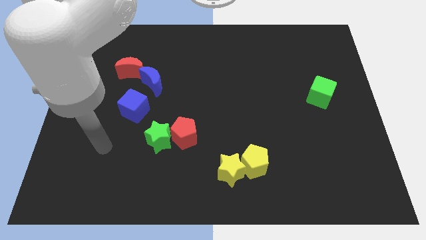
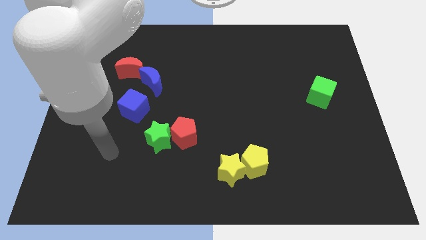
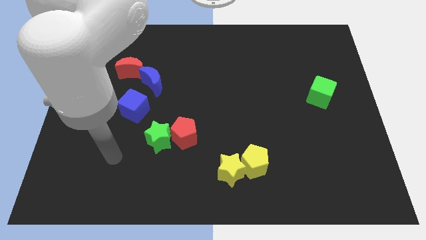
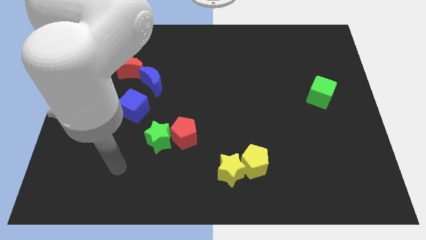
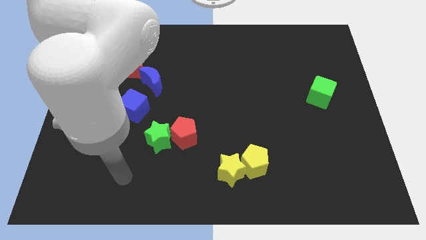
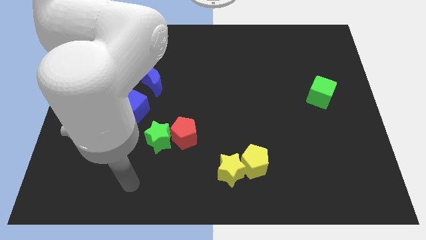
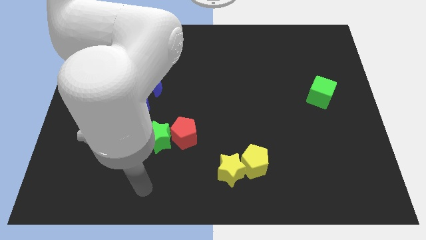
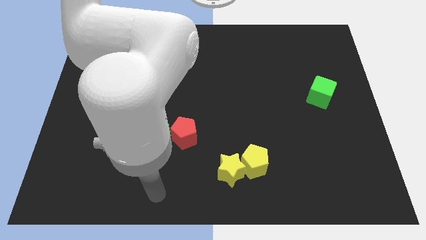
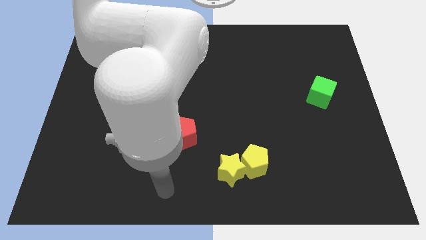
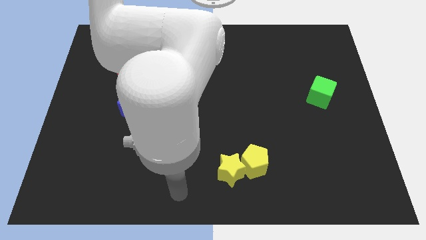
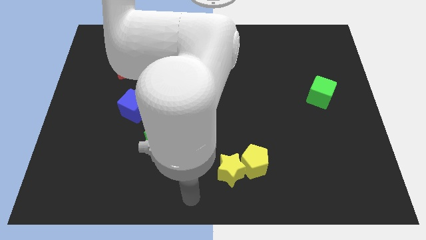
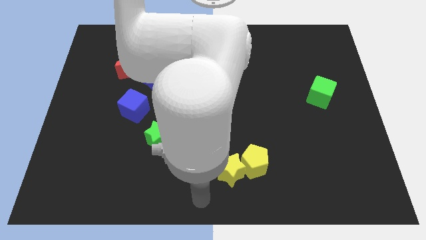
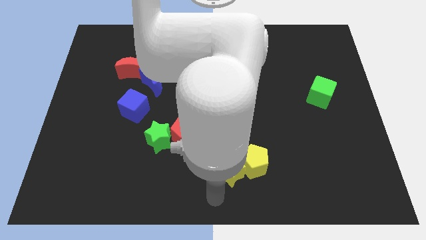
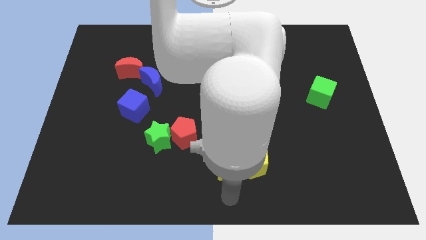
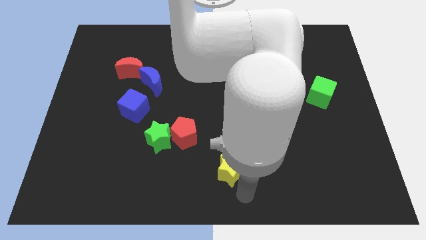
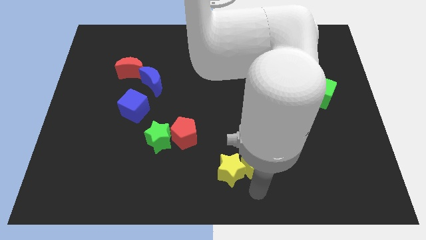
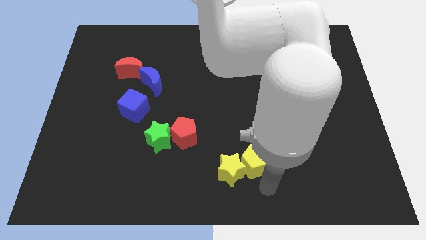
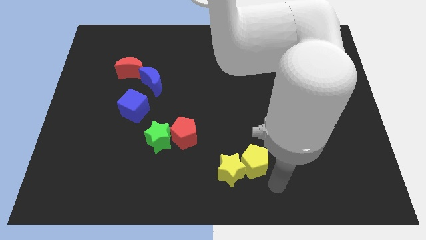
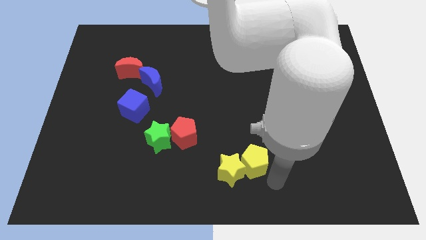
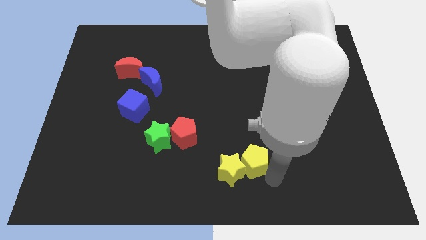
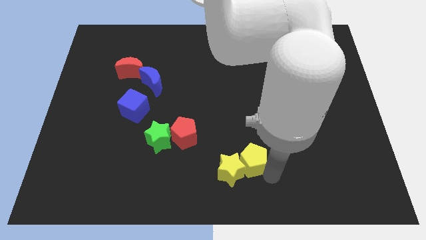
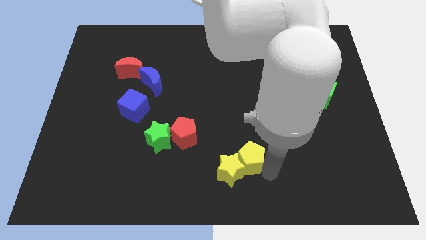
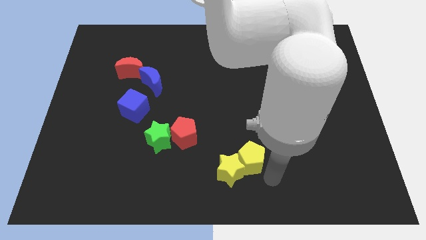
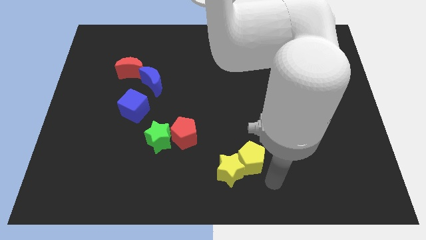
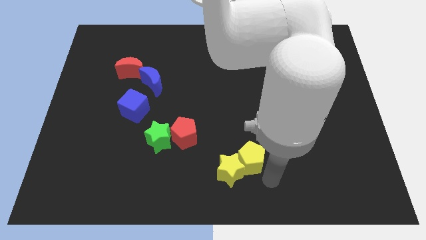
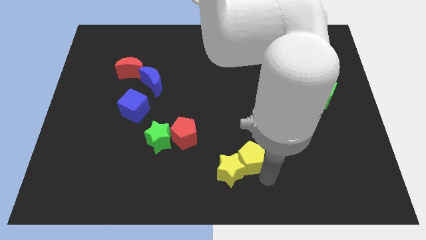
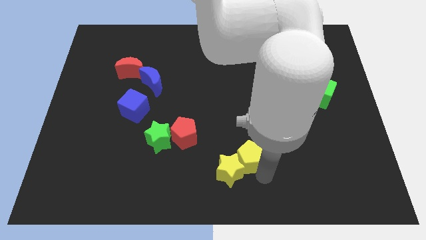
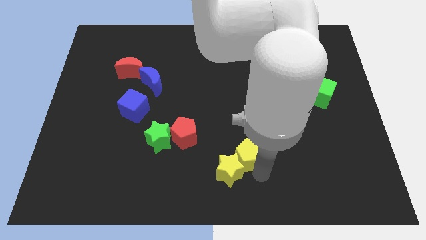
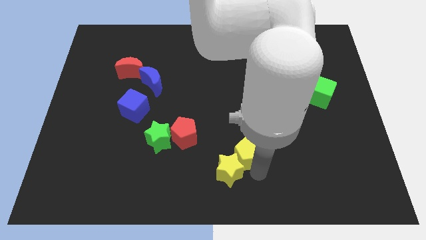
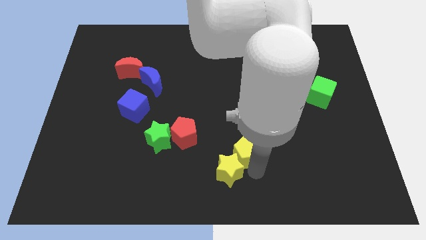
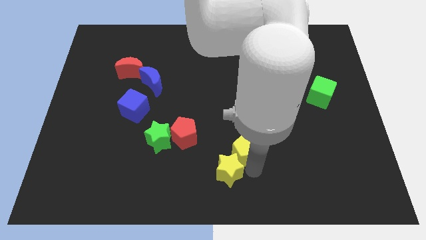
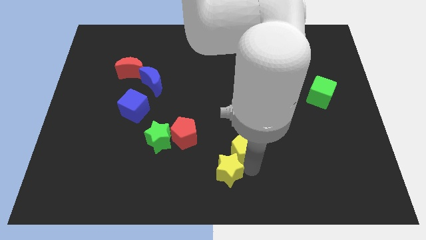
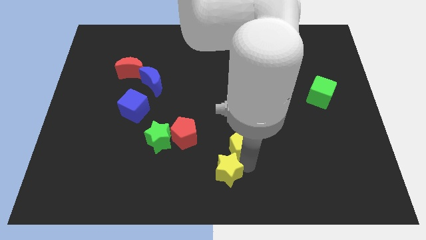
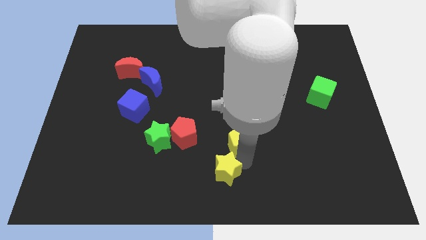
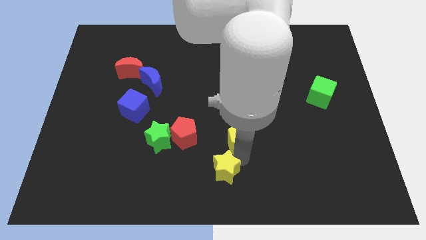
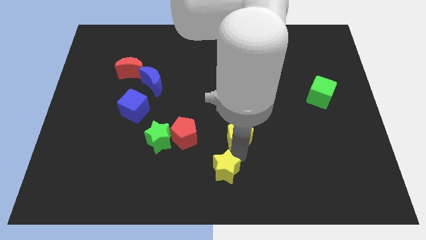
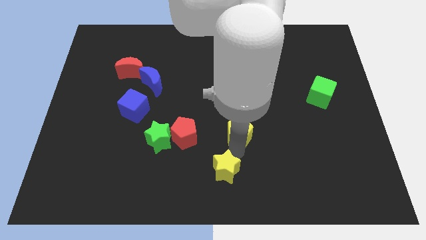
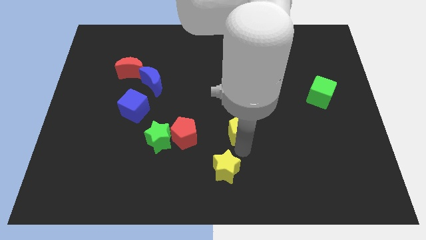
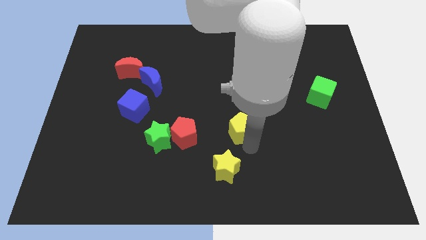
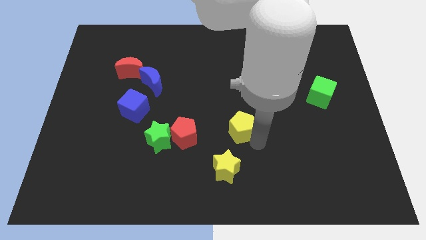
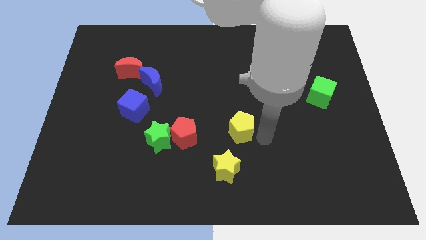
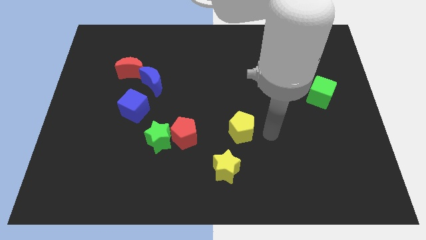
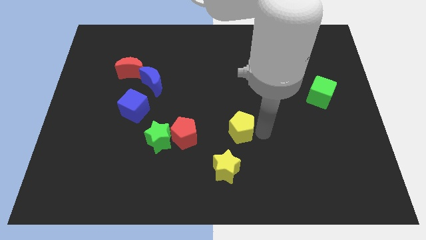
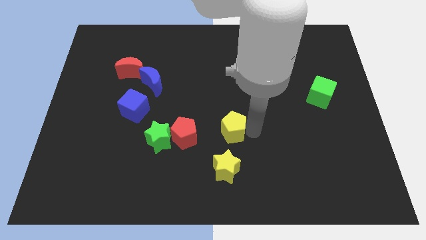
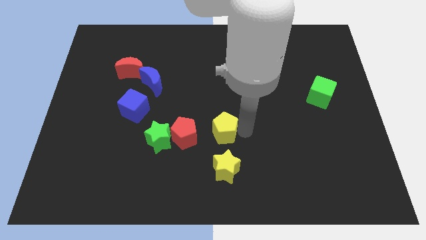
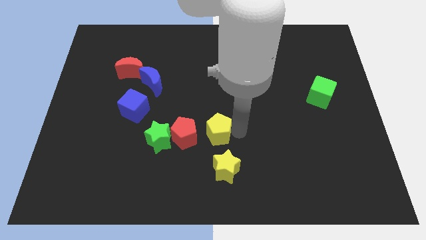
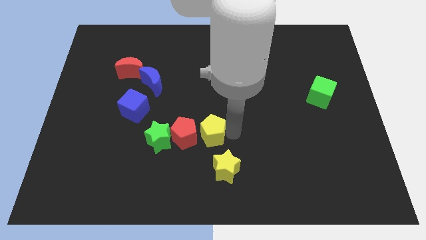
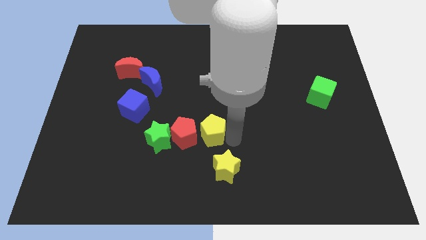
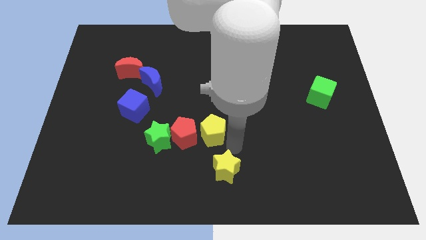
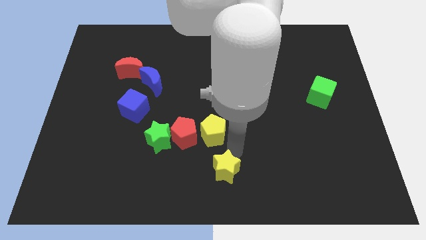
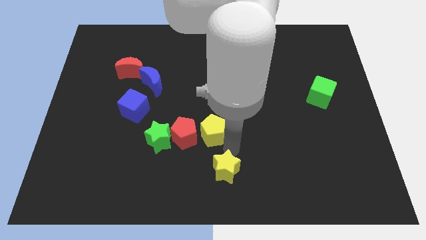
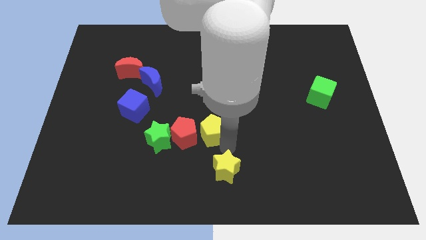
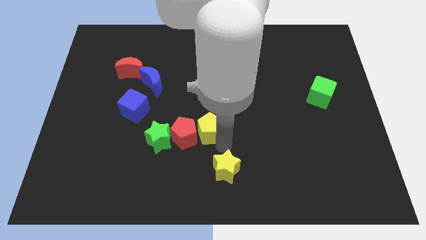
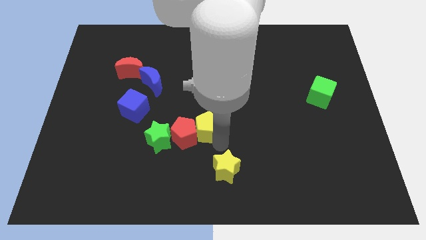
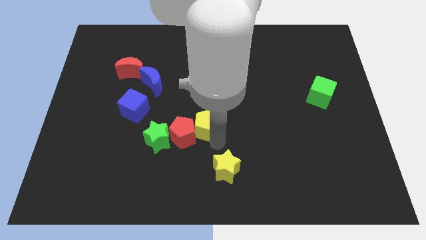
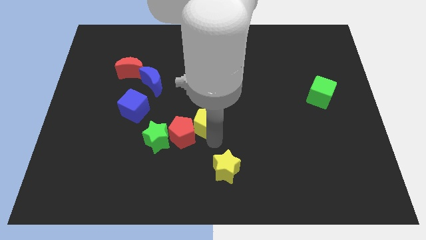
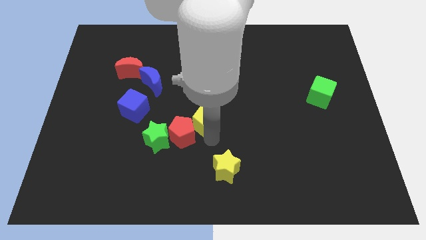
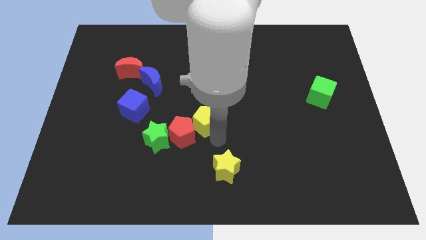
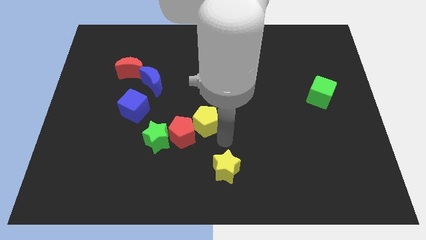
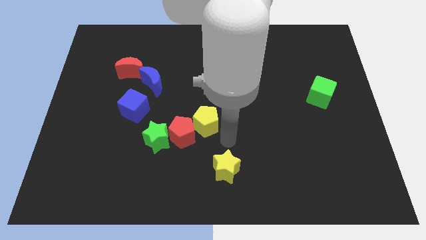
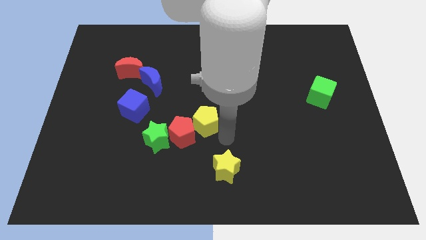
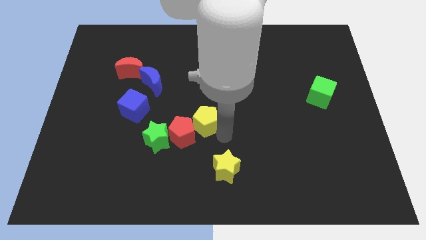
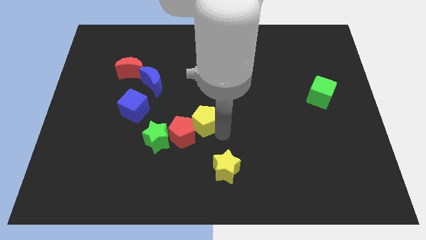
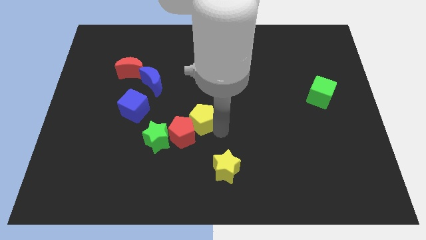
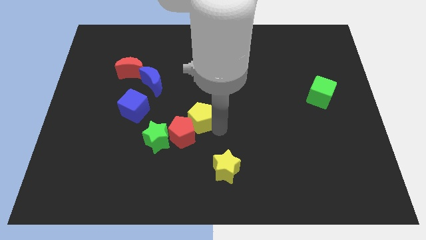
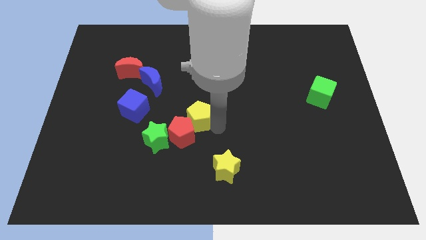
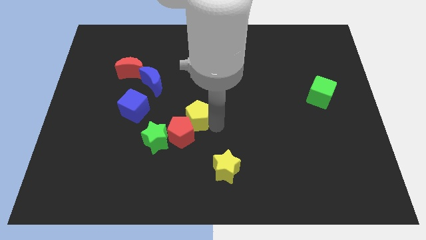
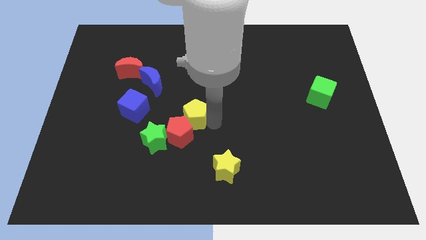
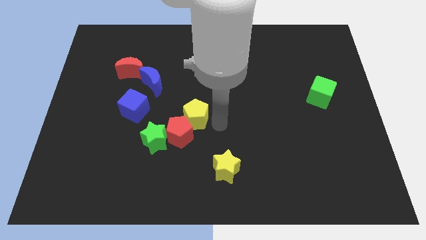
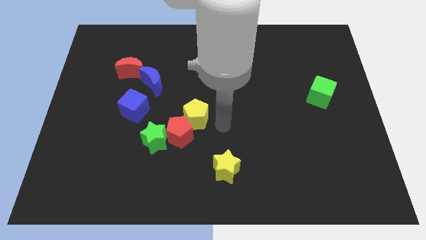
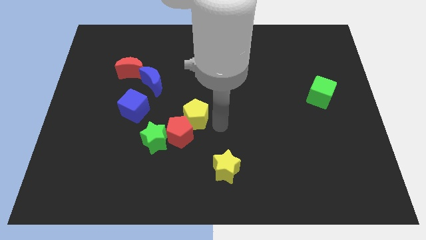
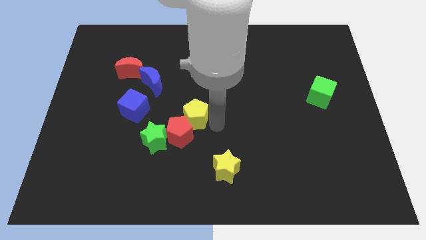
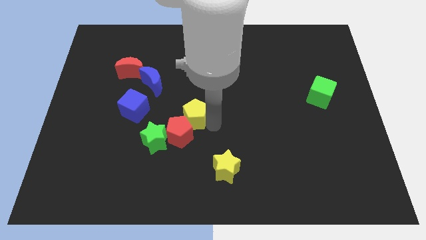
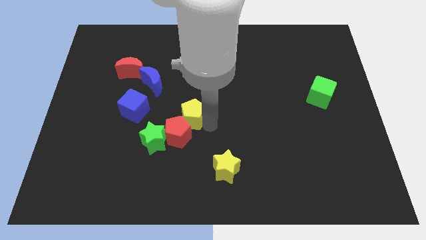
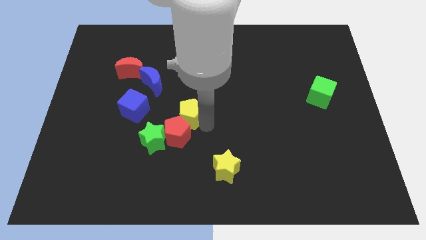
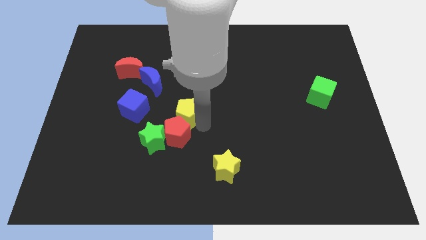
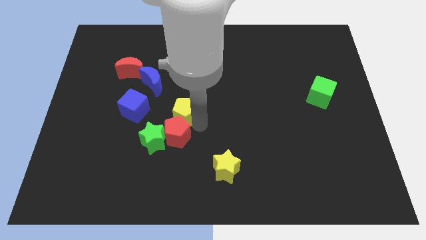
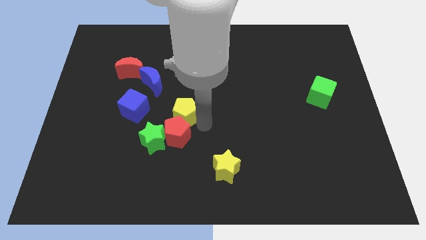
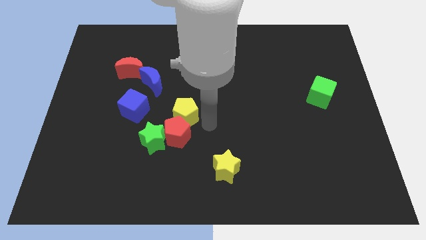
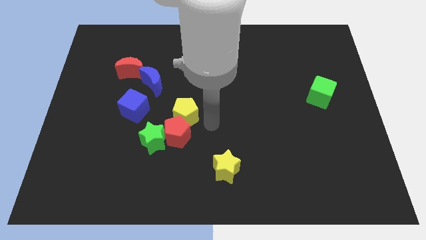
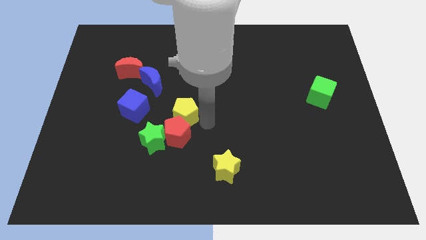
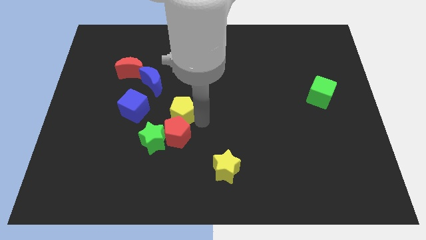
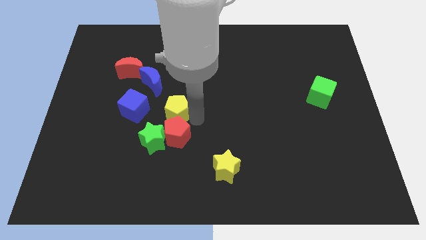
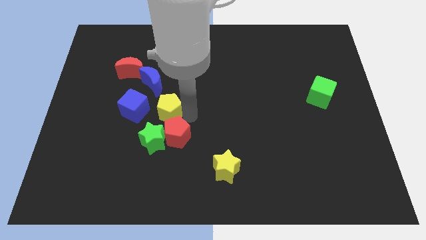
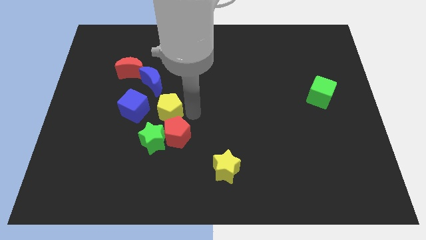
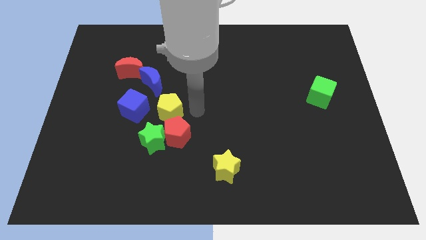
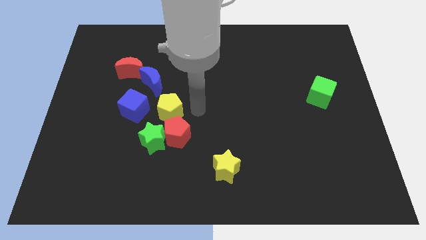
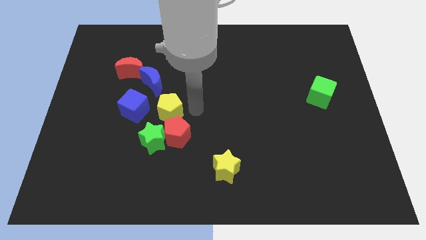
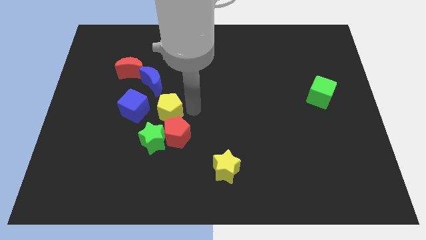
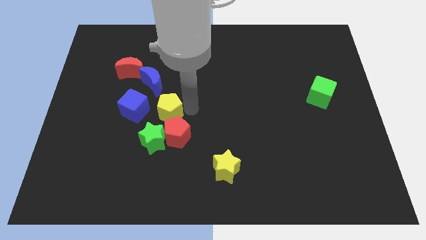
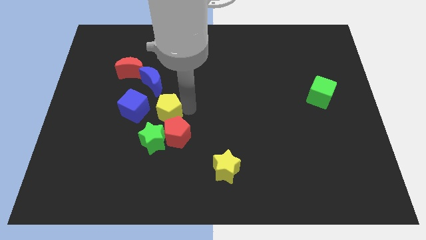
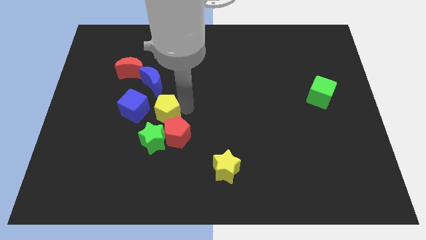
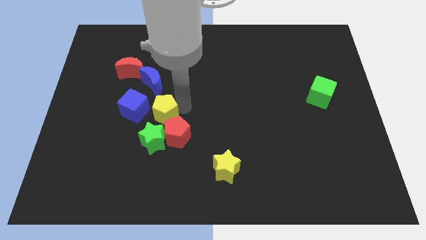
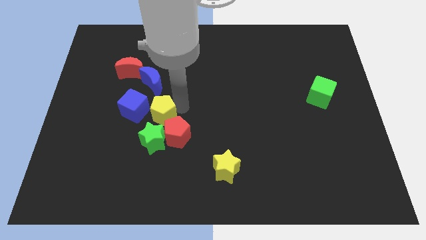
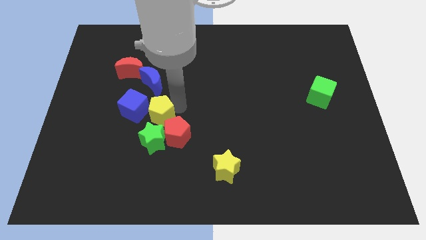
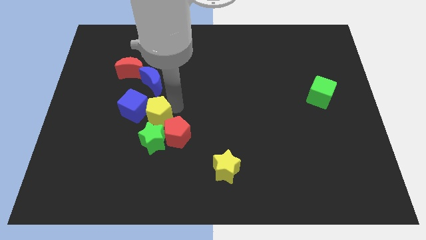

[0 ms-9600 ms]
push the yellow pentagon next to the blue cube
